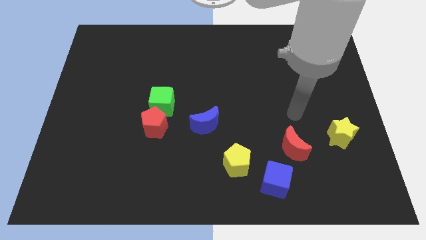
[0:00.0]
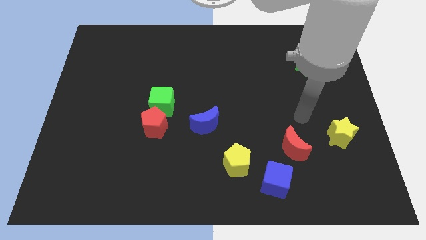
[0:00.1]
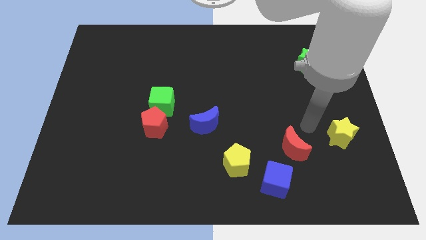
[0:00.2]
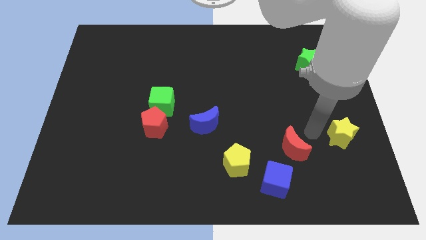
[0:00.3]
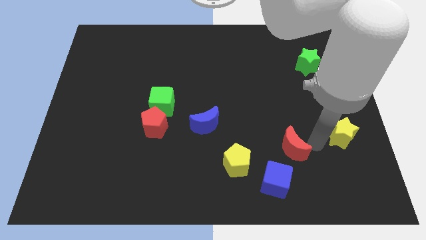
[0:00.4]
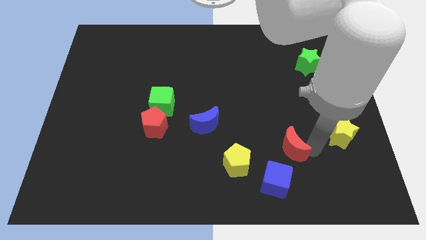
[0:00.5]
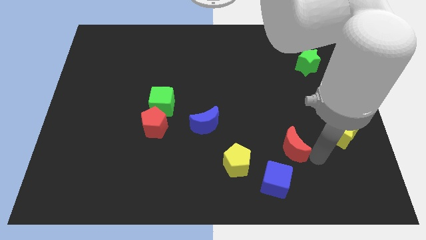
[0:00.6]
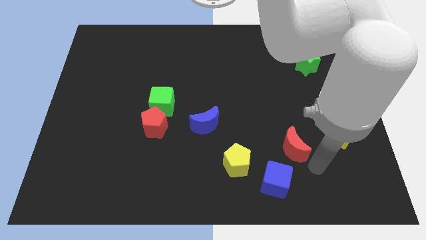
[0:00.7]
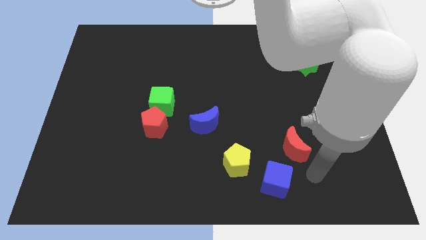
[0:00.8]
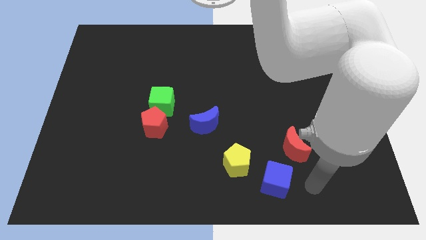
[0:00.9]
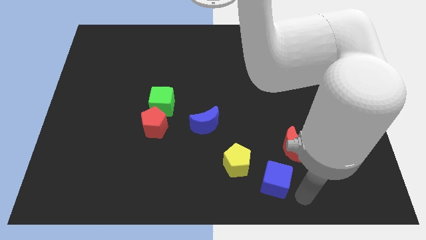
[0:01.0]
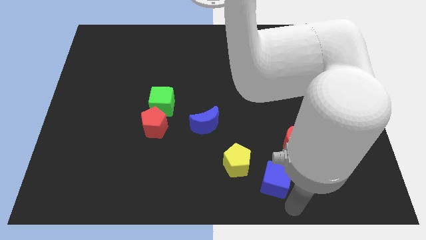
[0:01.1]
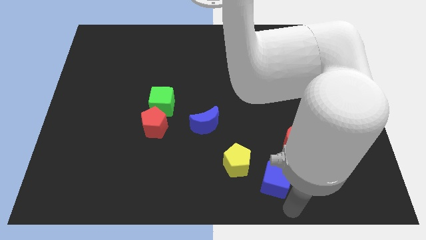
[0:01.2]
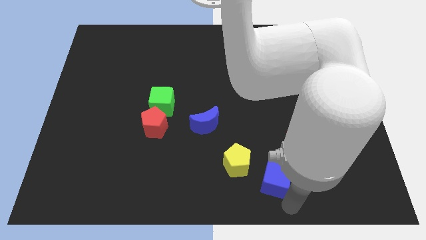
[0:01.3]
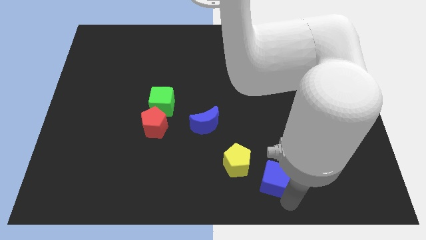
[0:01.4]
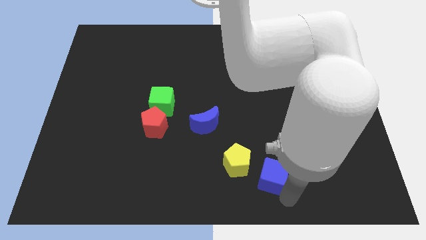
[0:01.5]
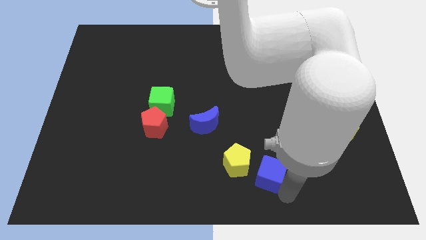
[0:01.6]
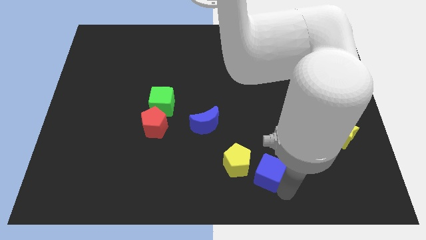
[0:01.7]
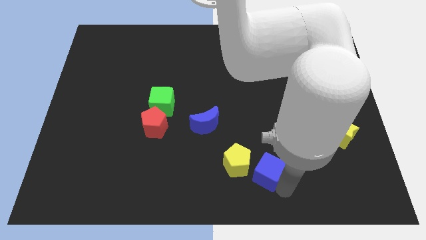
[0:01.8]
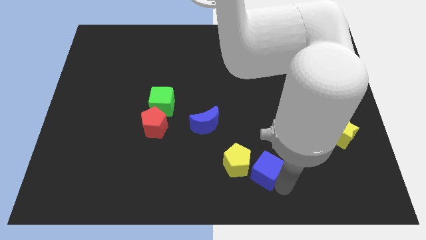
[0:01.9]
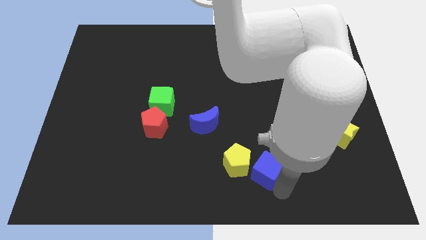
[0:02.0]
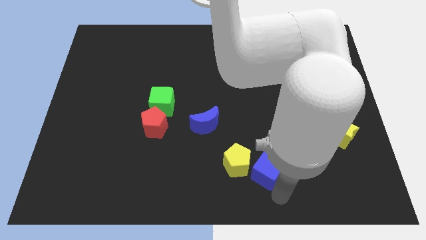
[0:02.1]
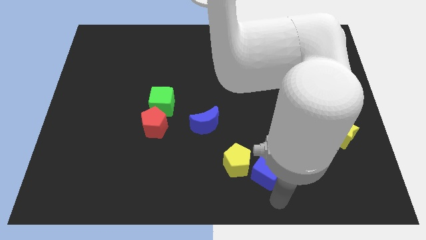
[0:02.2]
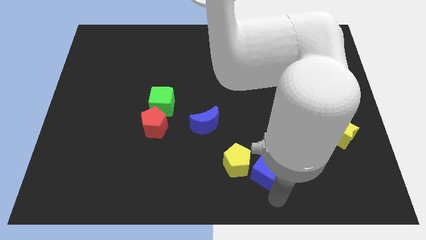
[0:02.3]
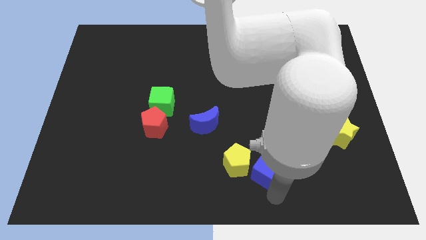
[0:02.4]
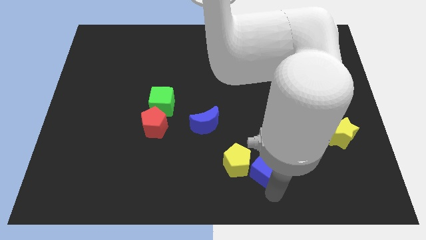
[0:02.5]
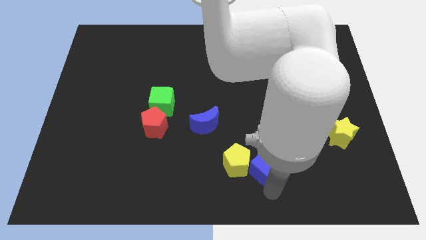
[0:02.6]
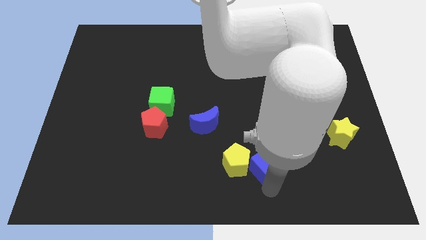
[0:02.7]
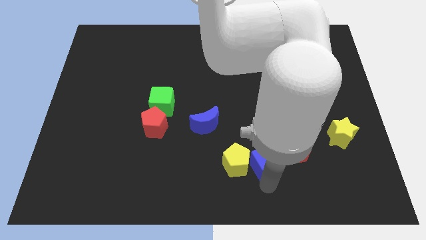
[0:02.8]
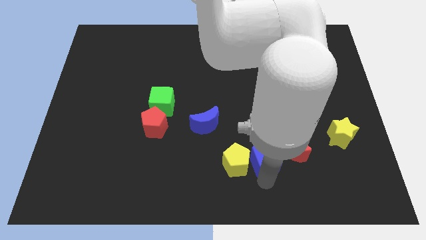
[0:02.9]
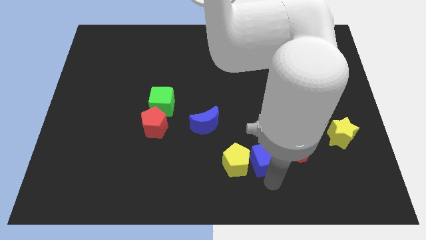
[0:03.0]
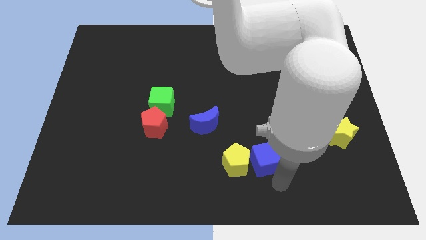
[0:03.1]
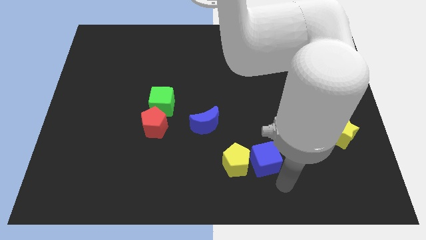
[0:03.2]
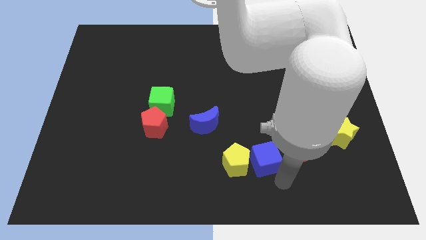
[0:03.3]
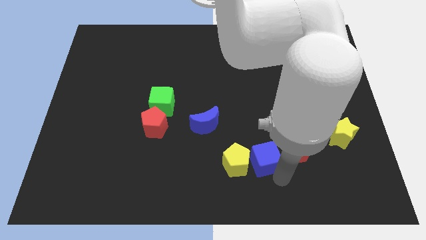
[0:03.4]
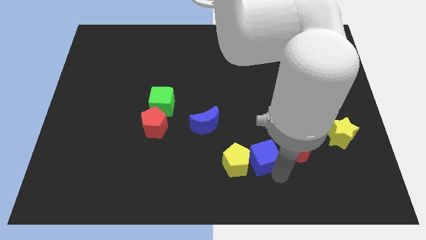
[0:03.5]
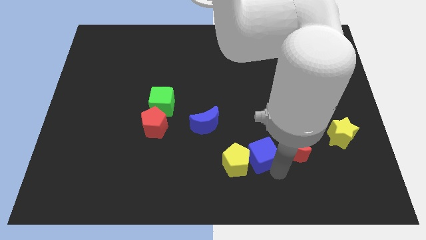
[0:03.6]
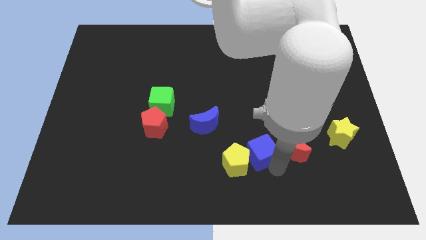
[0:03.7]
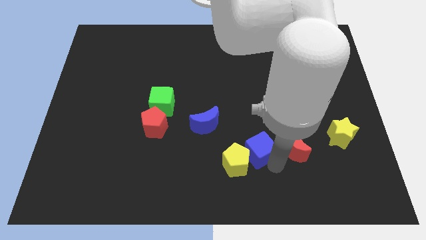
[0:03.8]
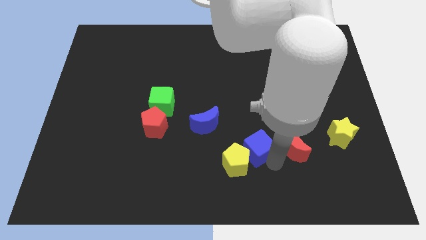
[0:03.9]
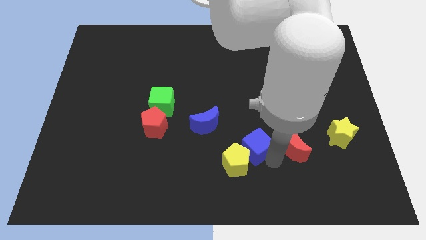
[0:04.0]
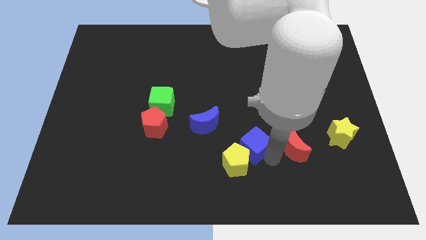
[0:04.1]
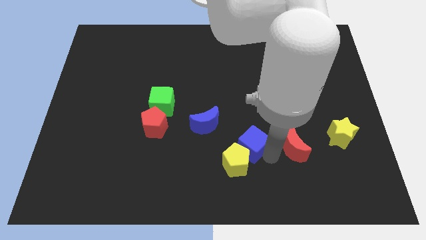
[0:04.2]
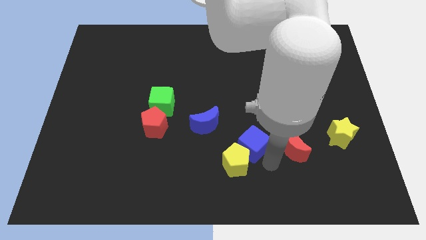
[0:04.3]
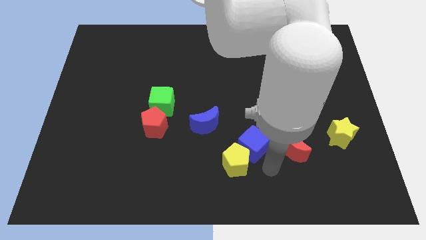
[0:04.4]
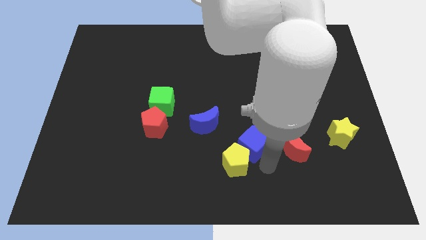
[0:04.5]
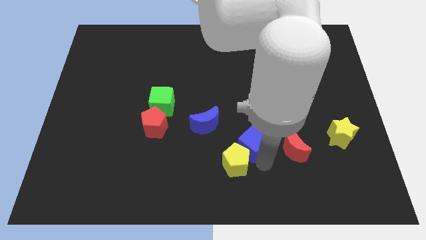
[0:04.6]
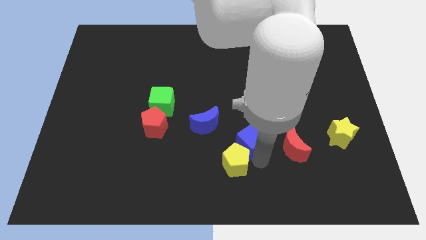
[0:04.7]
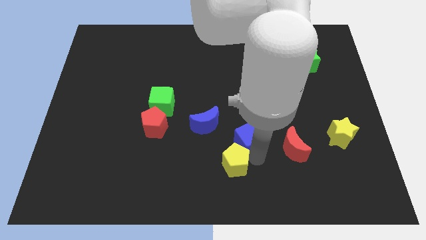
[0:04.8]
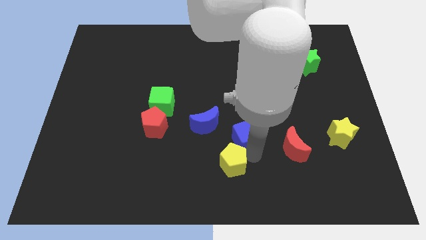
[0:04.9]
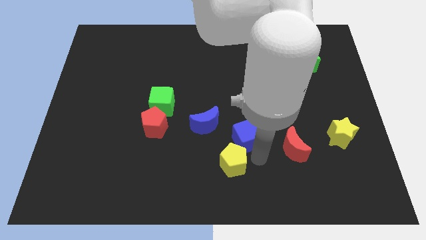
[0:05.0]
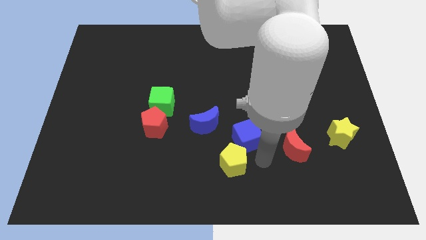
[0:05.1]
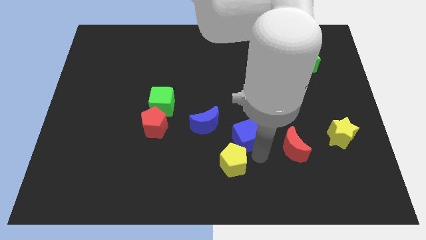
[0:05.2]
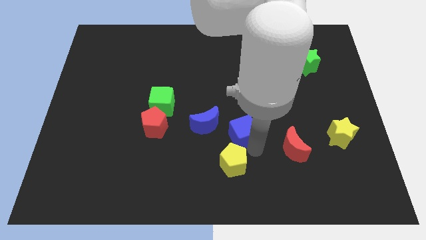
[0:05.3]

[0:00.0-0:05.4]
move the blue cube to the middle of the board

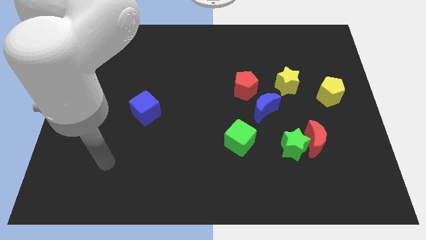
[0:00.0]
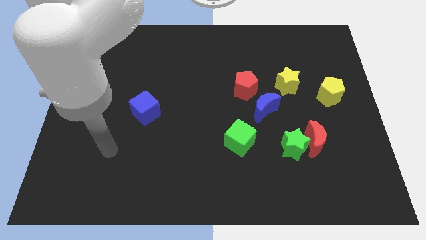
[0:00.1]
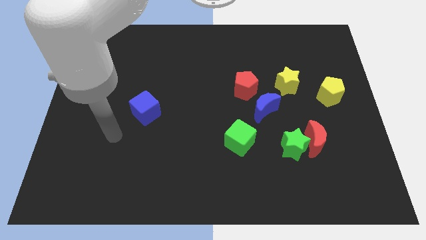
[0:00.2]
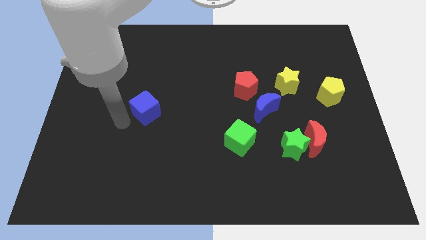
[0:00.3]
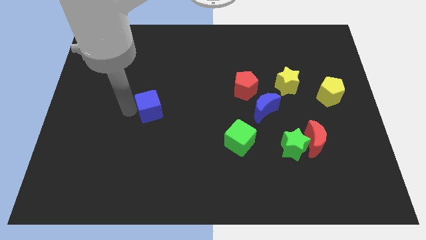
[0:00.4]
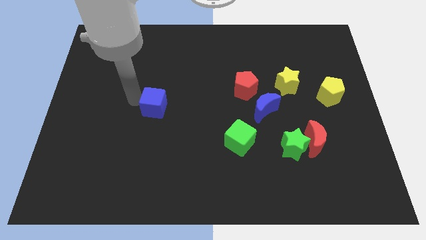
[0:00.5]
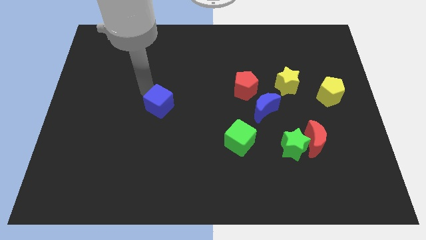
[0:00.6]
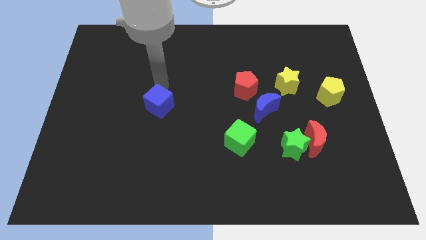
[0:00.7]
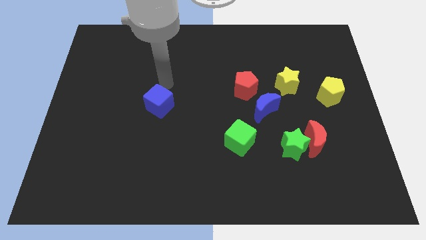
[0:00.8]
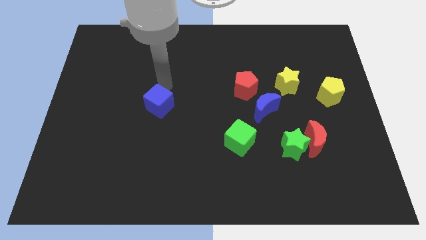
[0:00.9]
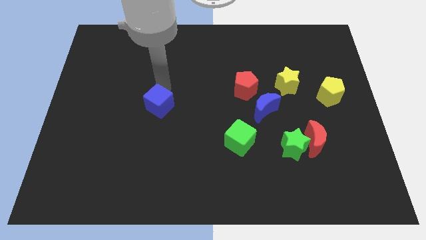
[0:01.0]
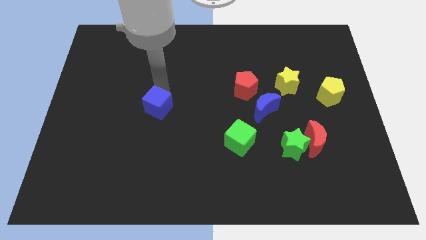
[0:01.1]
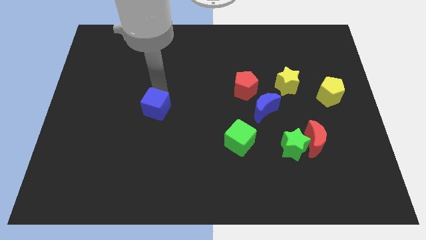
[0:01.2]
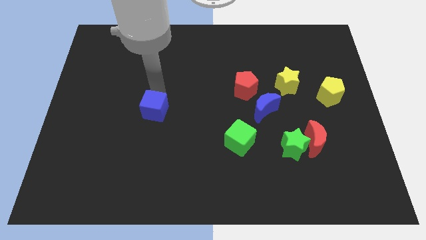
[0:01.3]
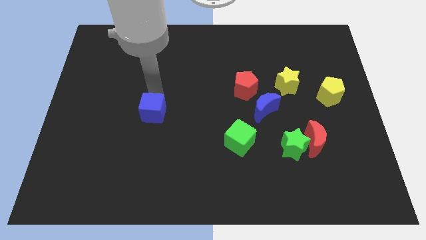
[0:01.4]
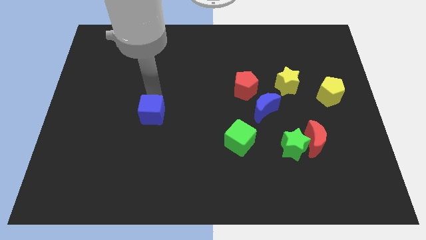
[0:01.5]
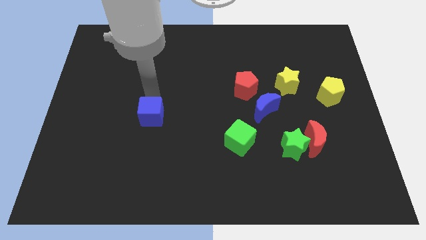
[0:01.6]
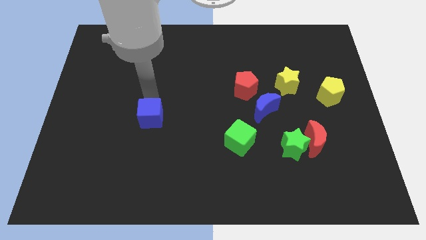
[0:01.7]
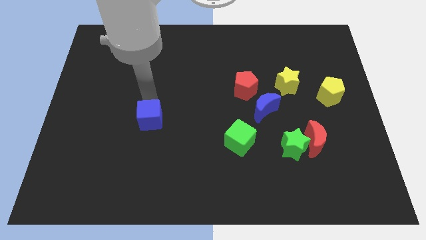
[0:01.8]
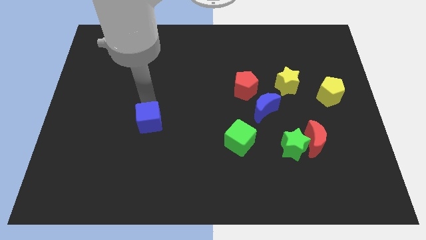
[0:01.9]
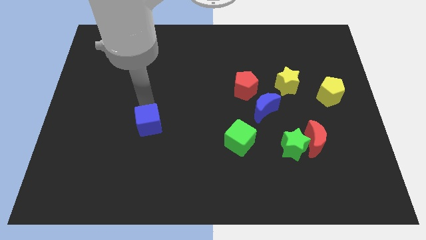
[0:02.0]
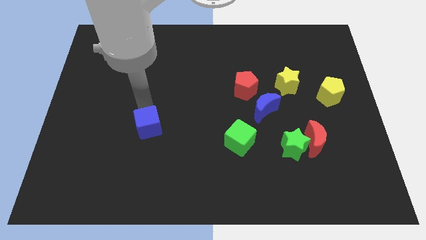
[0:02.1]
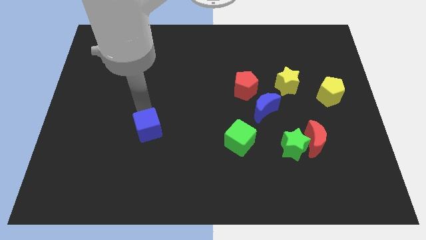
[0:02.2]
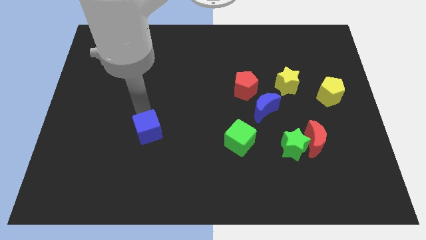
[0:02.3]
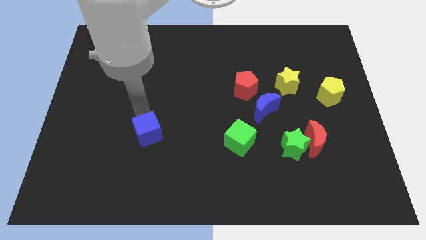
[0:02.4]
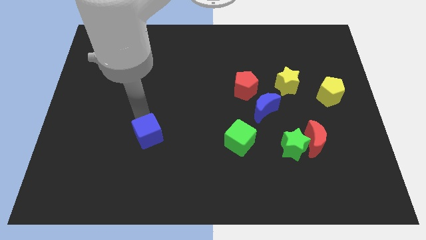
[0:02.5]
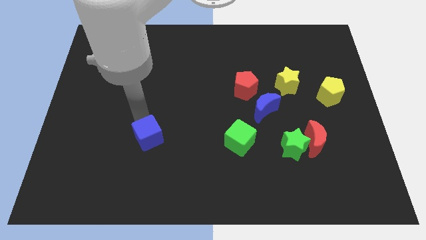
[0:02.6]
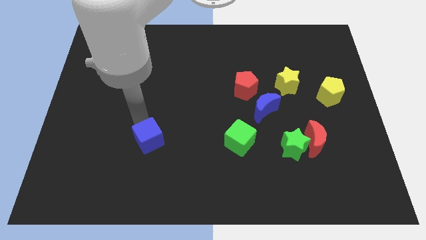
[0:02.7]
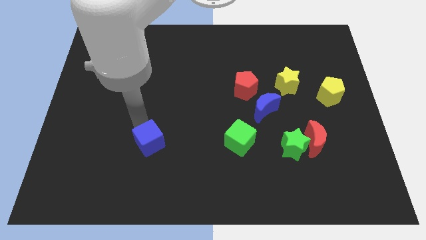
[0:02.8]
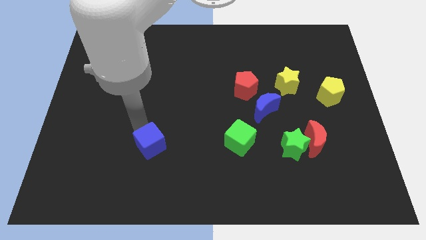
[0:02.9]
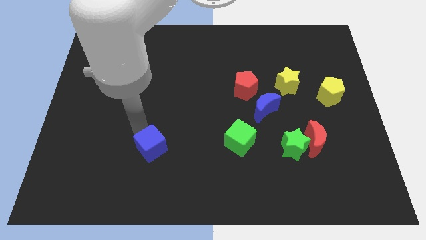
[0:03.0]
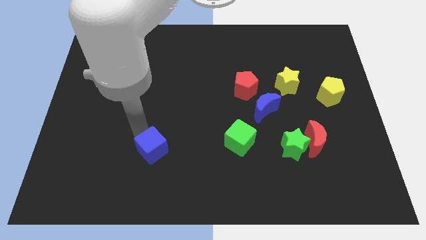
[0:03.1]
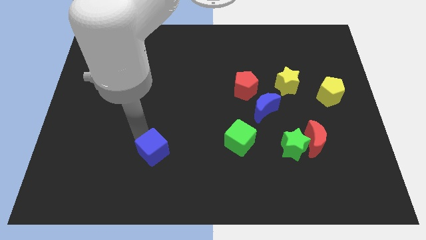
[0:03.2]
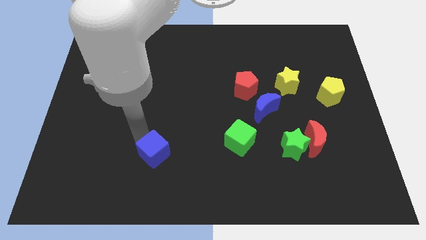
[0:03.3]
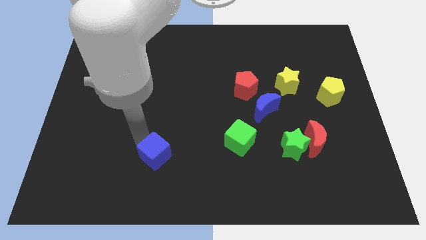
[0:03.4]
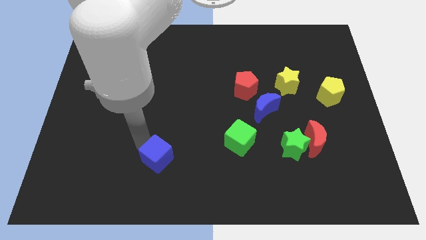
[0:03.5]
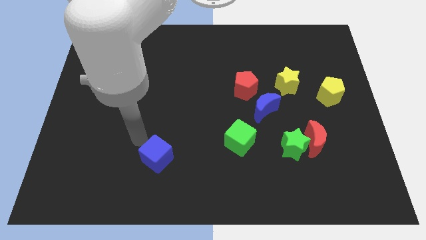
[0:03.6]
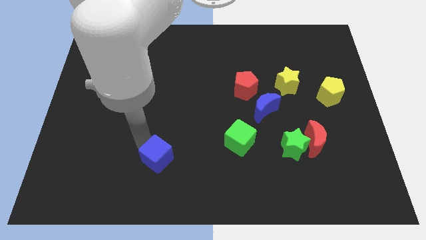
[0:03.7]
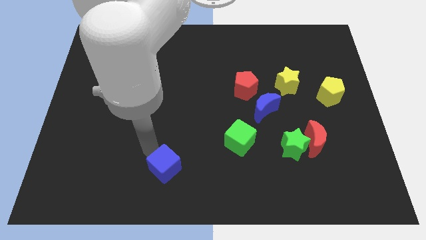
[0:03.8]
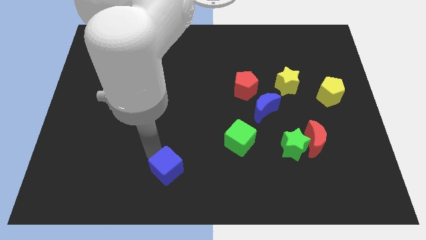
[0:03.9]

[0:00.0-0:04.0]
push the blue cube to the bottom
